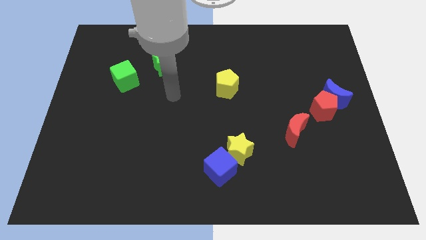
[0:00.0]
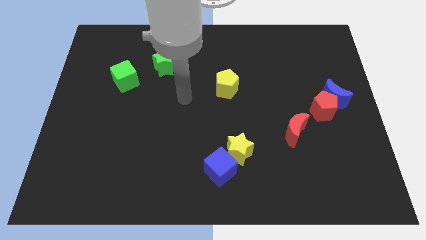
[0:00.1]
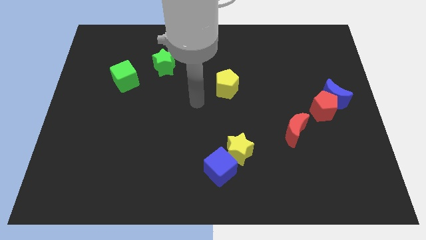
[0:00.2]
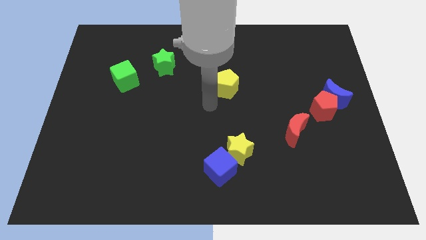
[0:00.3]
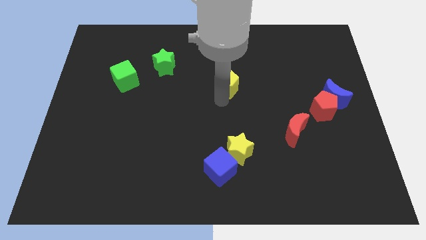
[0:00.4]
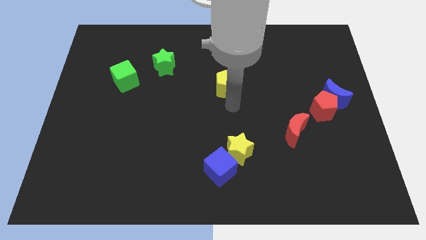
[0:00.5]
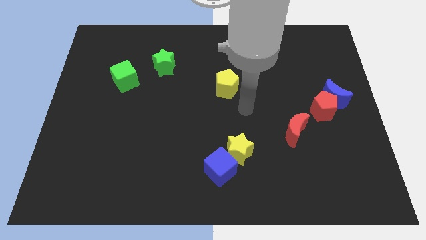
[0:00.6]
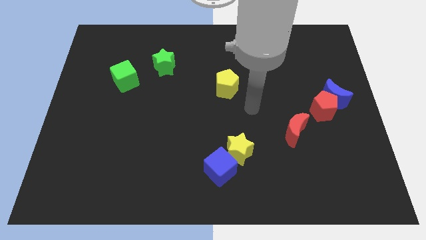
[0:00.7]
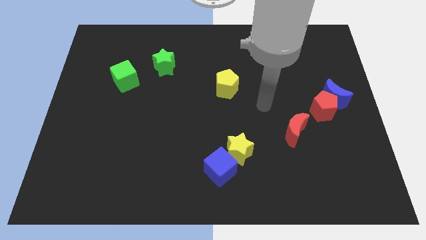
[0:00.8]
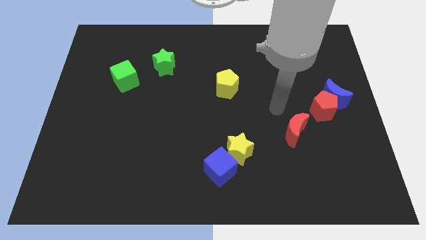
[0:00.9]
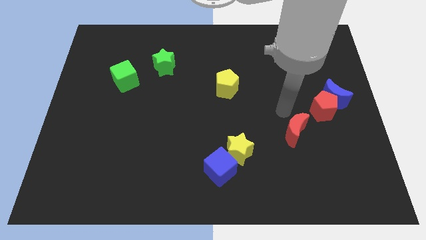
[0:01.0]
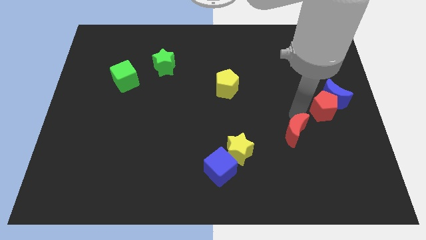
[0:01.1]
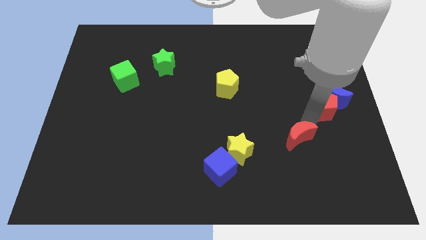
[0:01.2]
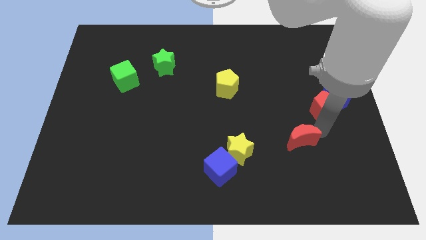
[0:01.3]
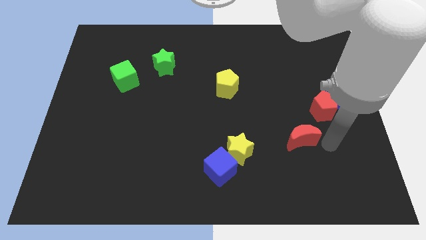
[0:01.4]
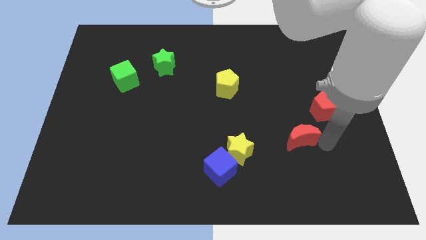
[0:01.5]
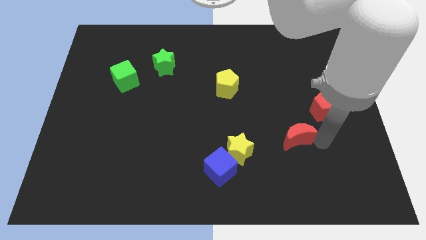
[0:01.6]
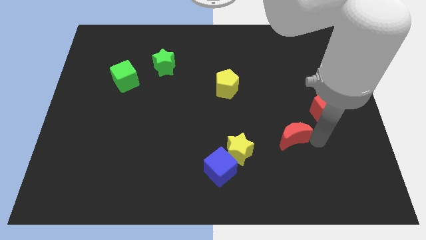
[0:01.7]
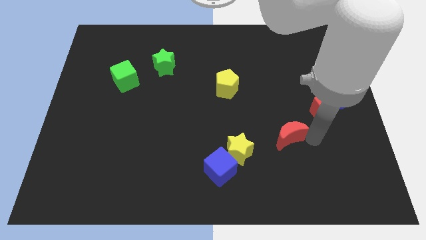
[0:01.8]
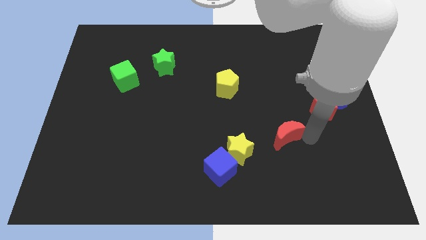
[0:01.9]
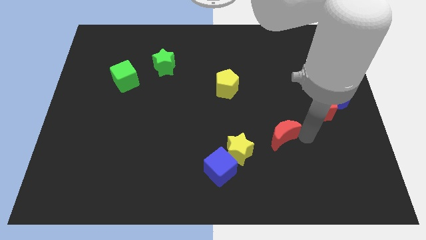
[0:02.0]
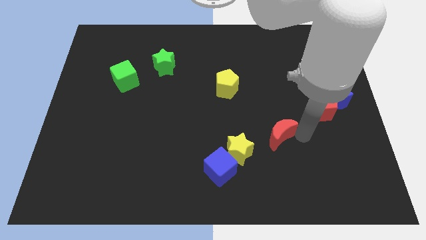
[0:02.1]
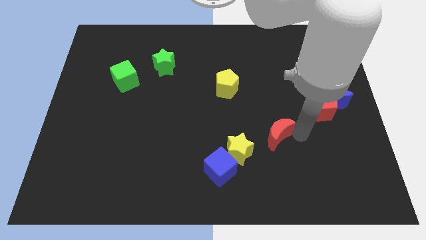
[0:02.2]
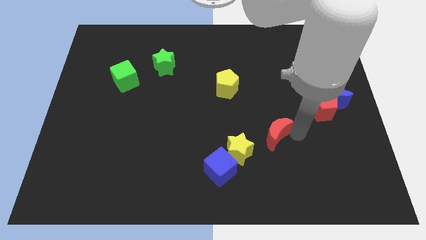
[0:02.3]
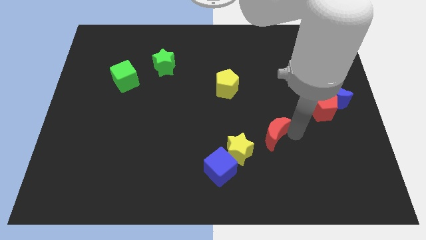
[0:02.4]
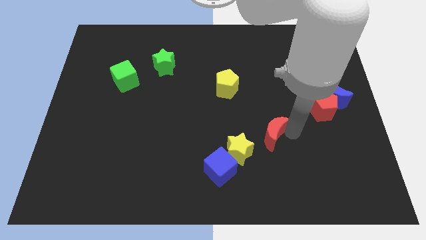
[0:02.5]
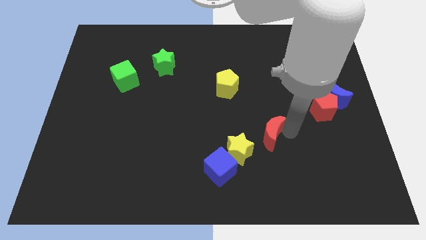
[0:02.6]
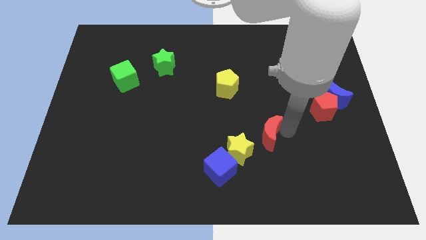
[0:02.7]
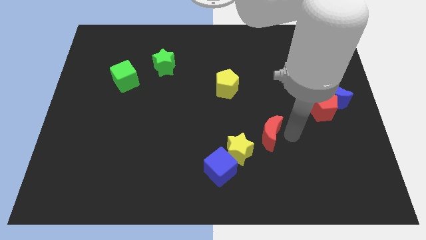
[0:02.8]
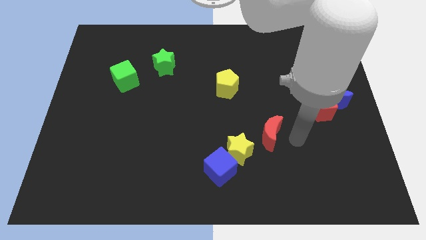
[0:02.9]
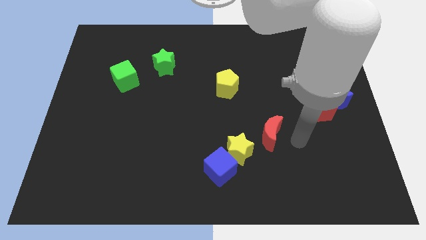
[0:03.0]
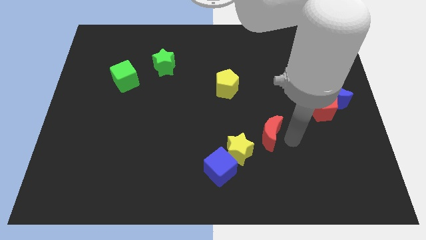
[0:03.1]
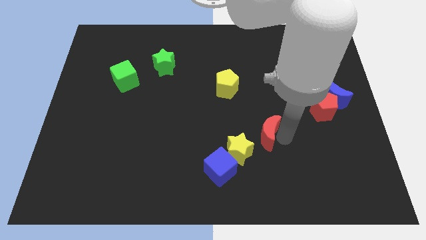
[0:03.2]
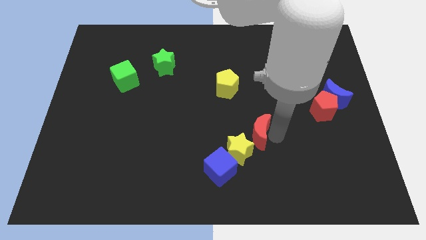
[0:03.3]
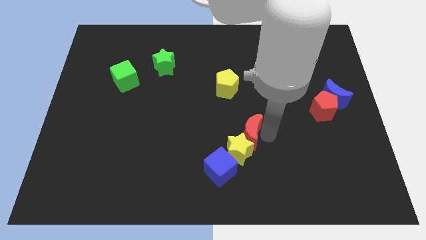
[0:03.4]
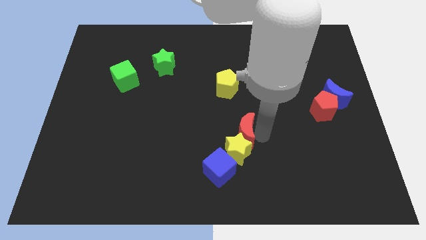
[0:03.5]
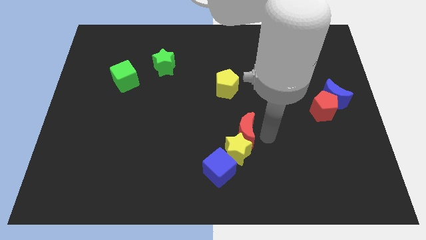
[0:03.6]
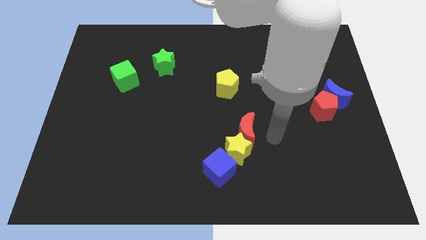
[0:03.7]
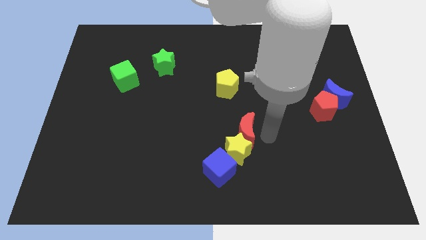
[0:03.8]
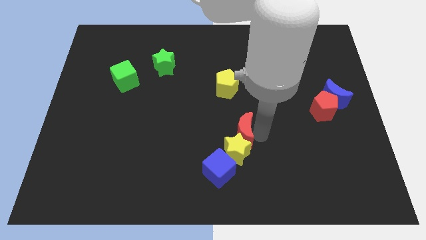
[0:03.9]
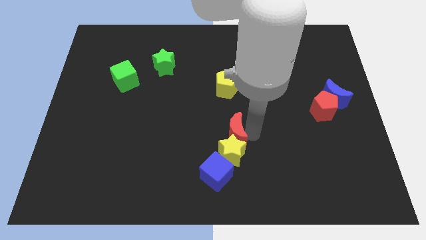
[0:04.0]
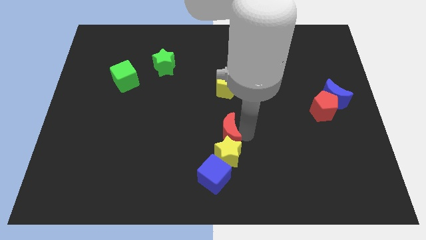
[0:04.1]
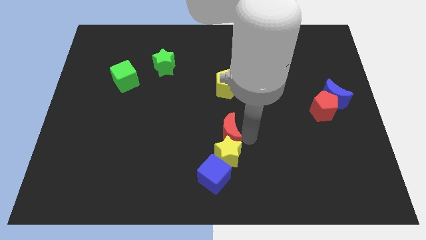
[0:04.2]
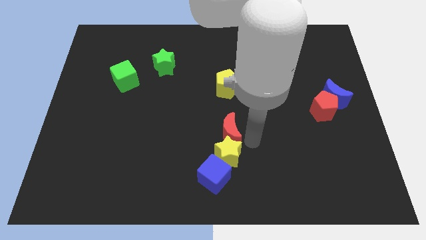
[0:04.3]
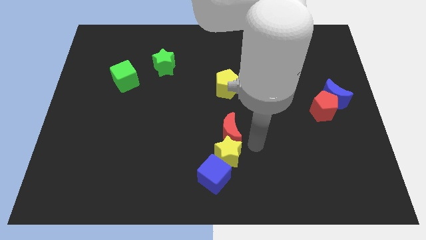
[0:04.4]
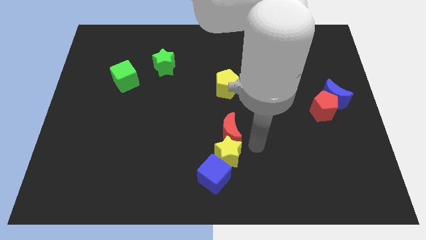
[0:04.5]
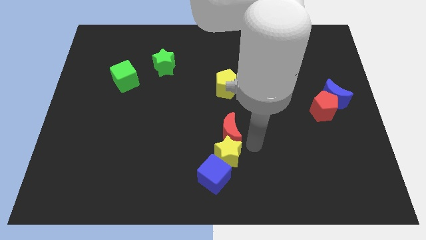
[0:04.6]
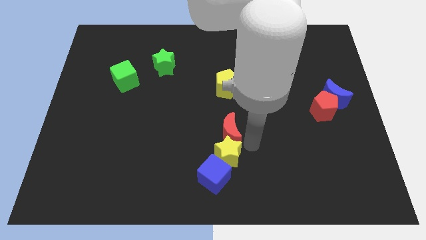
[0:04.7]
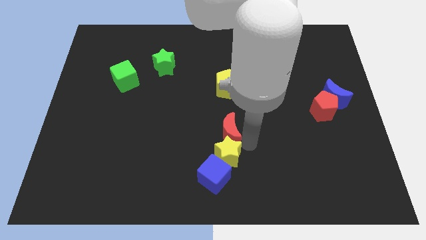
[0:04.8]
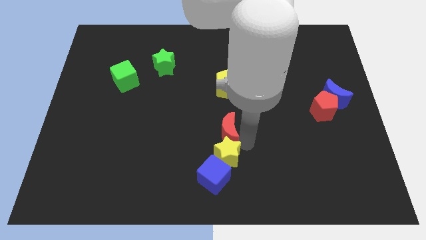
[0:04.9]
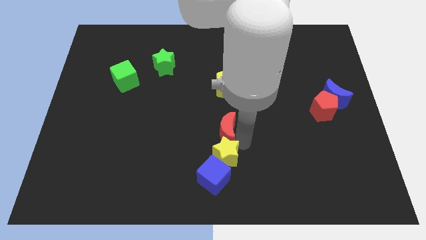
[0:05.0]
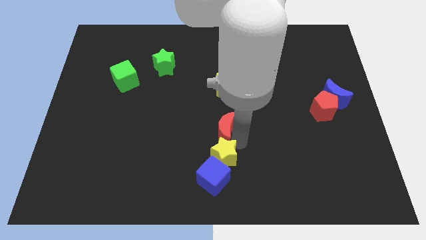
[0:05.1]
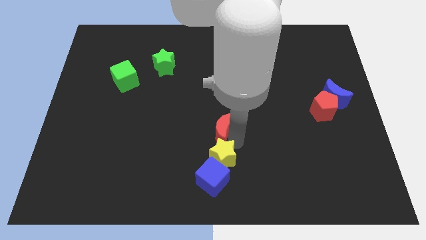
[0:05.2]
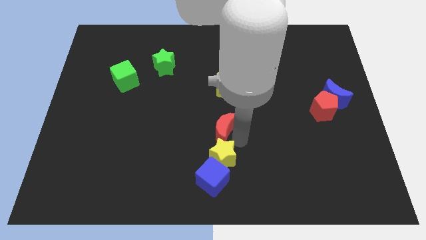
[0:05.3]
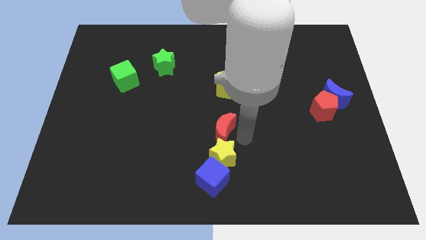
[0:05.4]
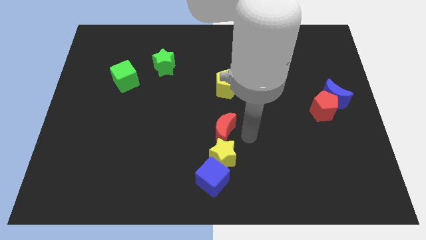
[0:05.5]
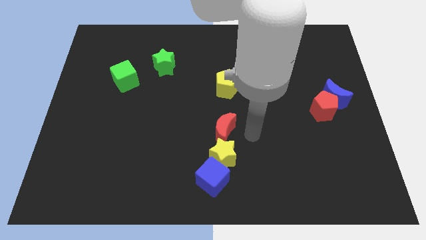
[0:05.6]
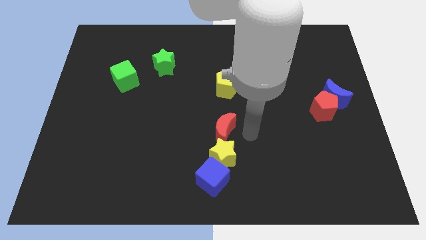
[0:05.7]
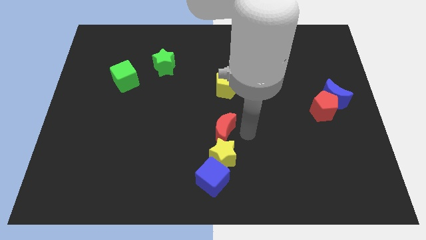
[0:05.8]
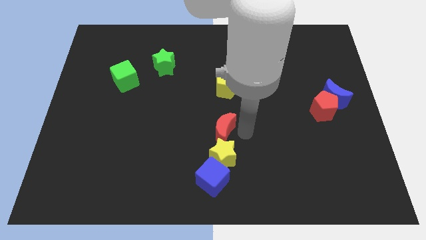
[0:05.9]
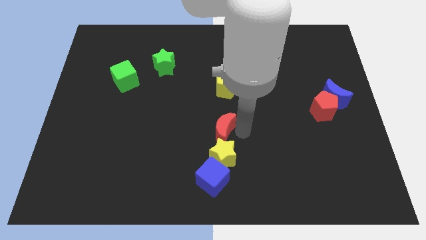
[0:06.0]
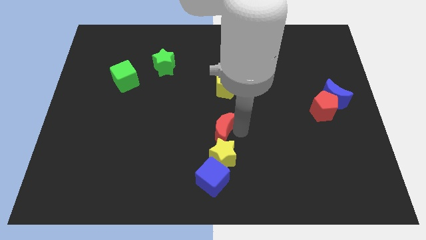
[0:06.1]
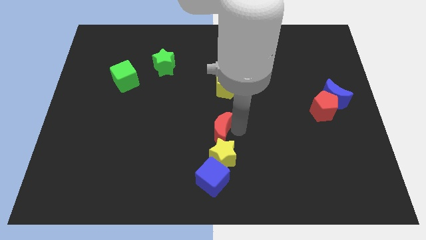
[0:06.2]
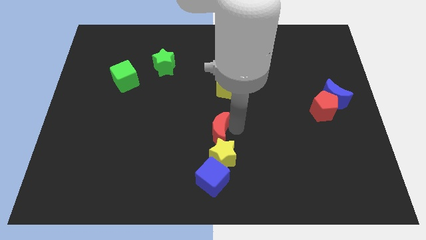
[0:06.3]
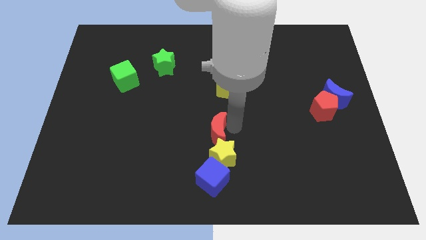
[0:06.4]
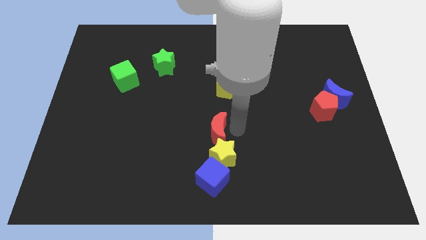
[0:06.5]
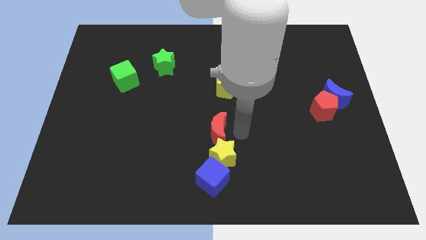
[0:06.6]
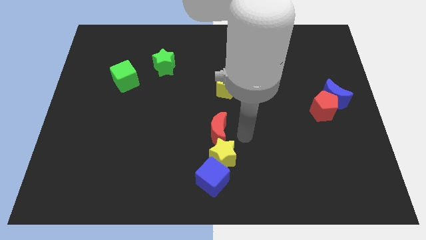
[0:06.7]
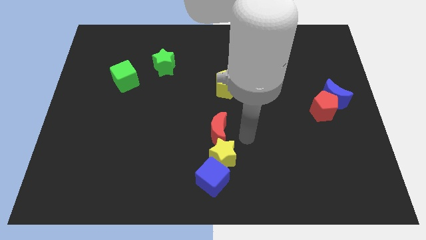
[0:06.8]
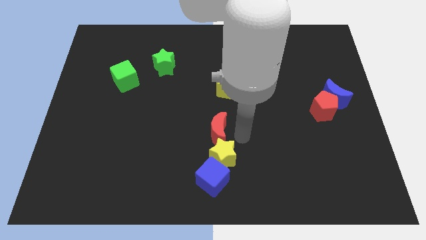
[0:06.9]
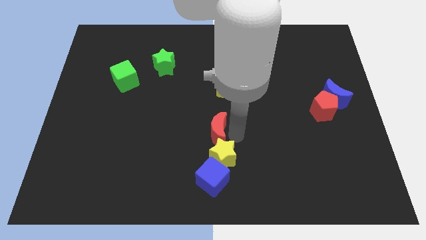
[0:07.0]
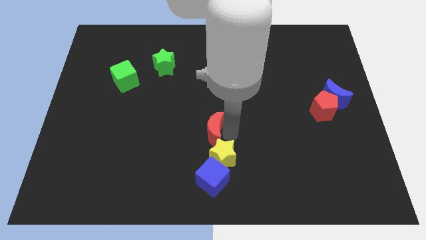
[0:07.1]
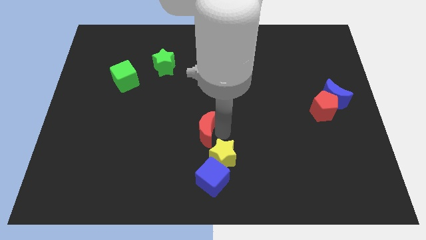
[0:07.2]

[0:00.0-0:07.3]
move the red moon left

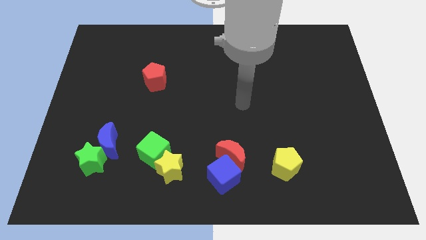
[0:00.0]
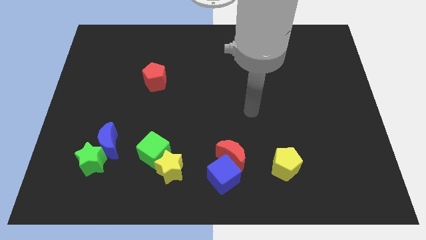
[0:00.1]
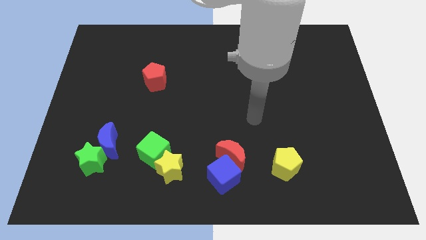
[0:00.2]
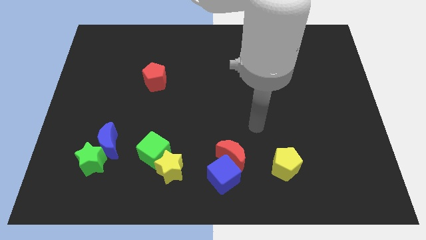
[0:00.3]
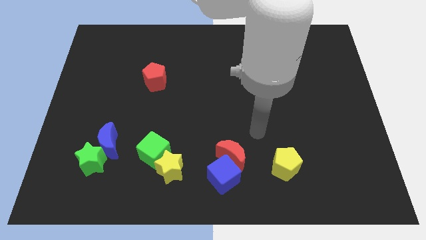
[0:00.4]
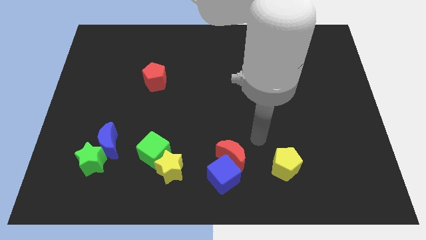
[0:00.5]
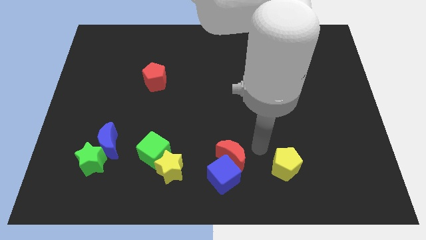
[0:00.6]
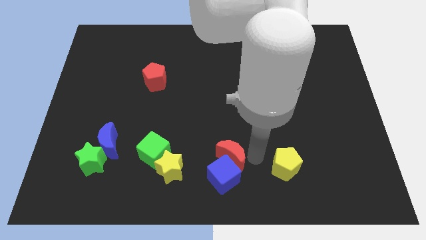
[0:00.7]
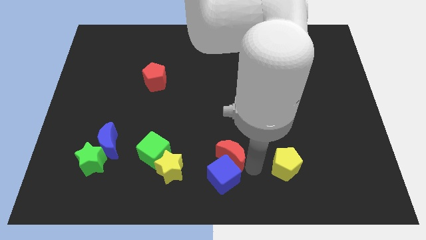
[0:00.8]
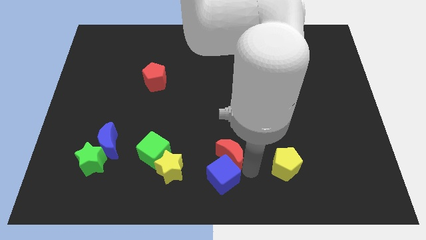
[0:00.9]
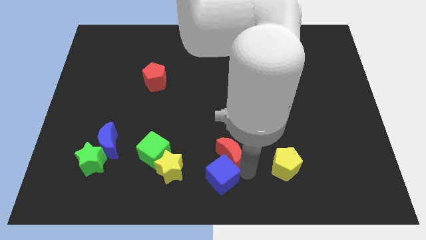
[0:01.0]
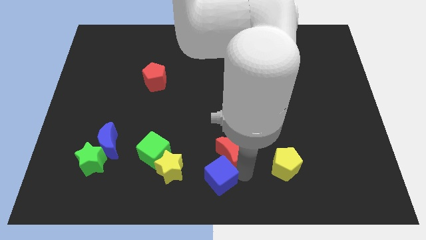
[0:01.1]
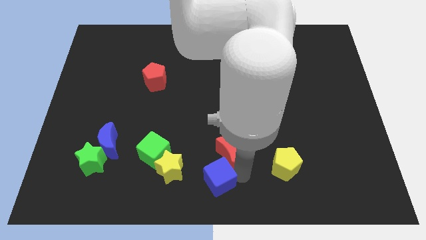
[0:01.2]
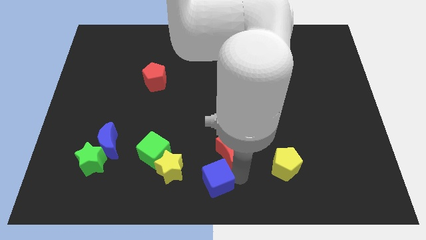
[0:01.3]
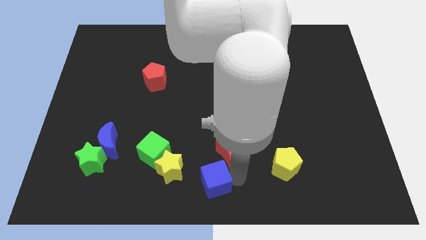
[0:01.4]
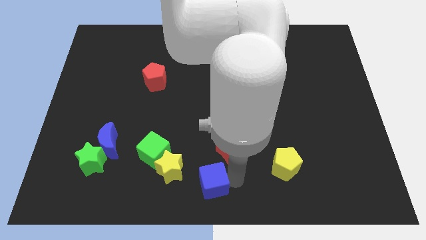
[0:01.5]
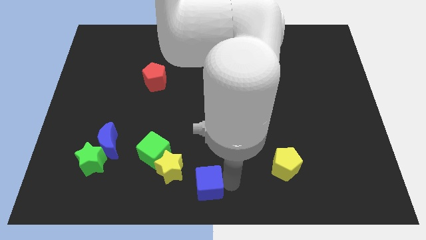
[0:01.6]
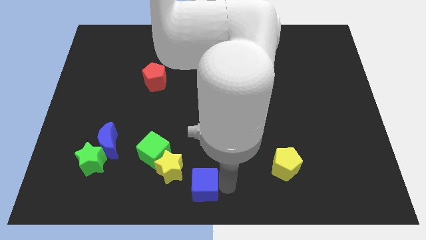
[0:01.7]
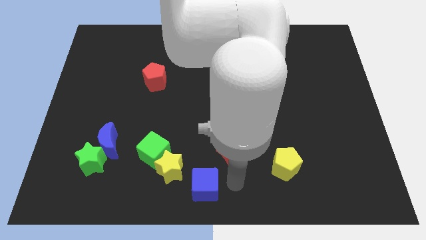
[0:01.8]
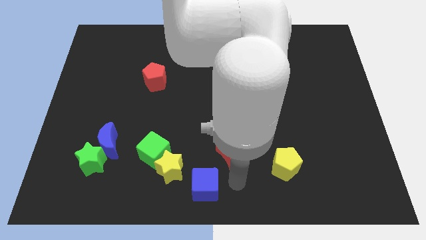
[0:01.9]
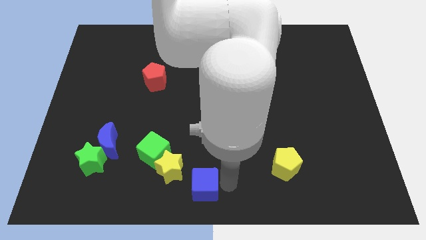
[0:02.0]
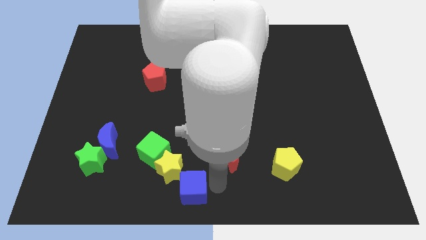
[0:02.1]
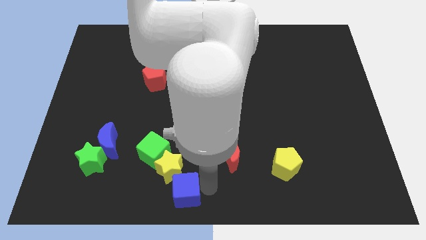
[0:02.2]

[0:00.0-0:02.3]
slide the blue cube slightly to the left
